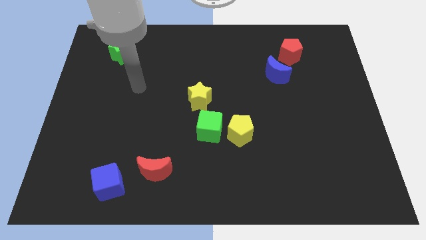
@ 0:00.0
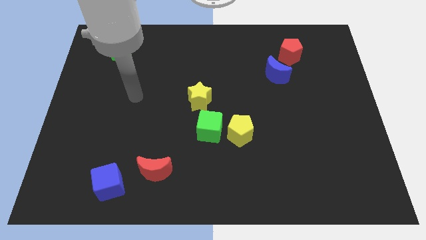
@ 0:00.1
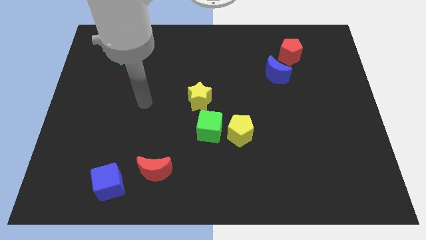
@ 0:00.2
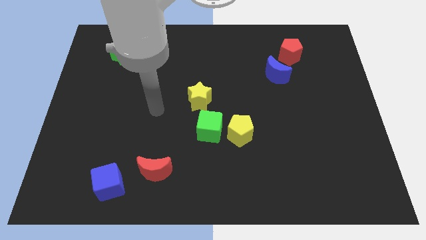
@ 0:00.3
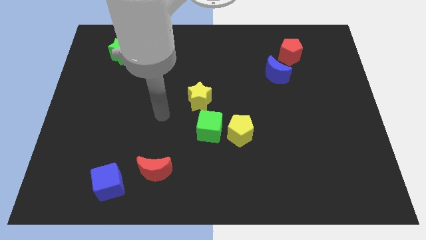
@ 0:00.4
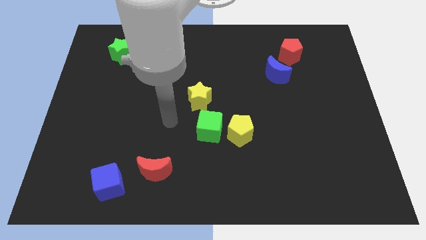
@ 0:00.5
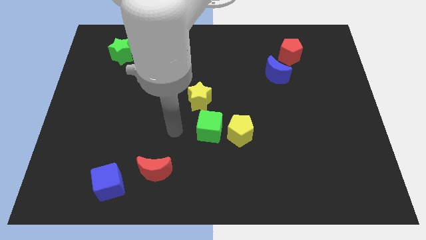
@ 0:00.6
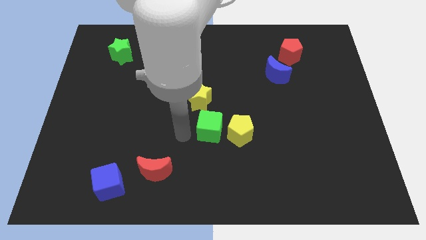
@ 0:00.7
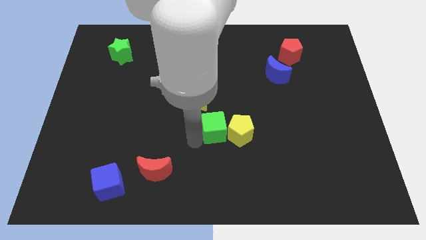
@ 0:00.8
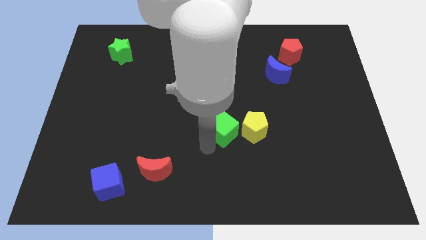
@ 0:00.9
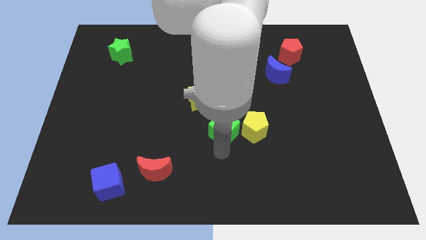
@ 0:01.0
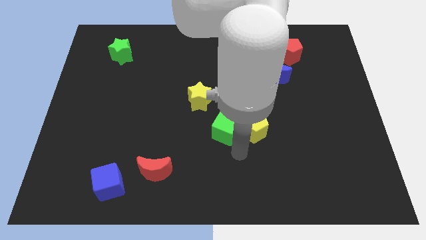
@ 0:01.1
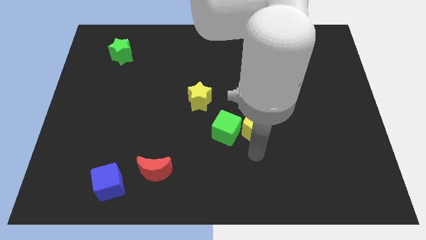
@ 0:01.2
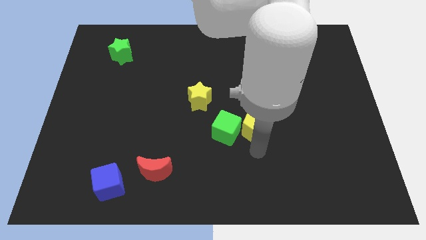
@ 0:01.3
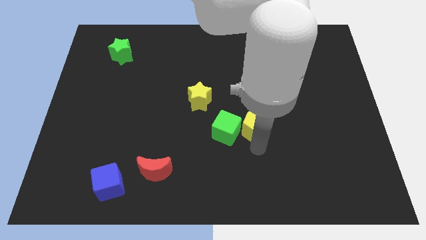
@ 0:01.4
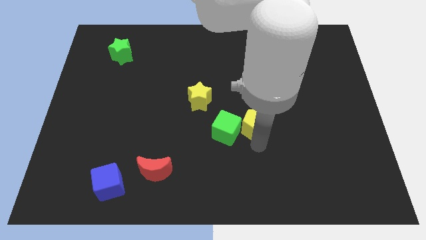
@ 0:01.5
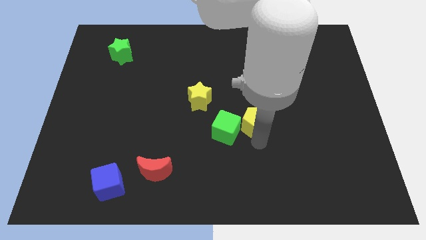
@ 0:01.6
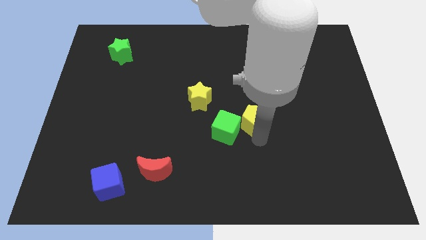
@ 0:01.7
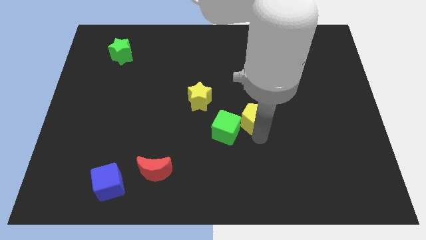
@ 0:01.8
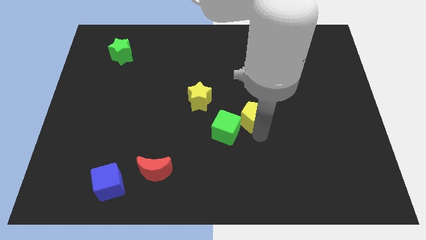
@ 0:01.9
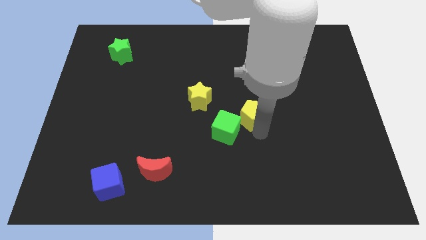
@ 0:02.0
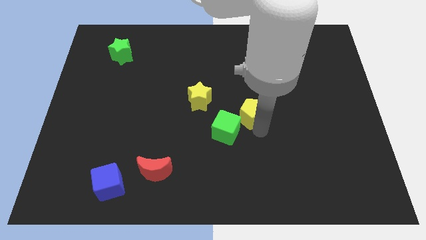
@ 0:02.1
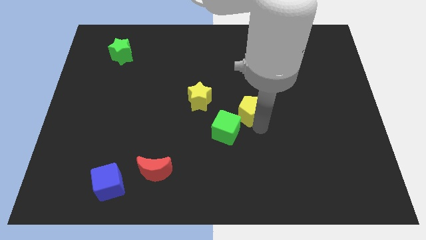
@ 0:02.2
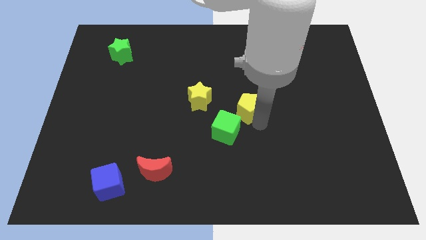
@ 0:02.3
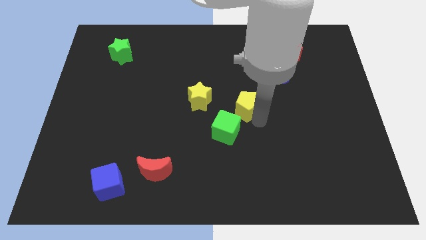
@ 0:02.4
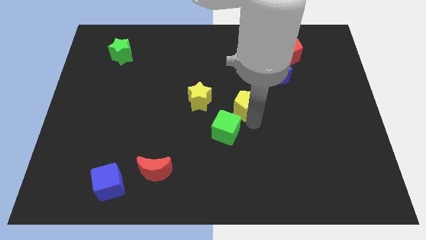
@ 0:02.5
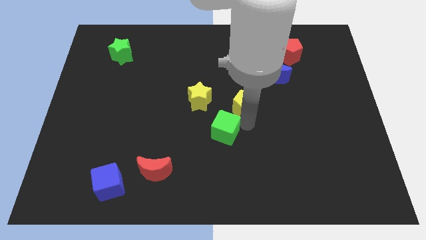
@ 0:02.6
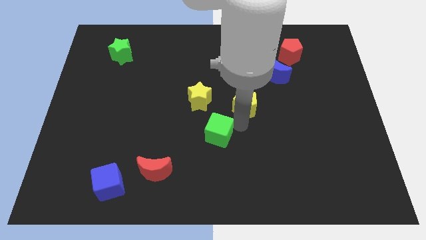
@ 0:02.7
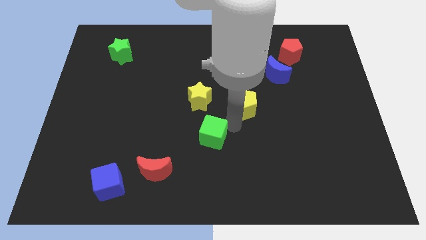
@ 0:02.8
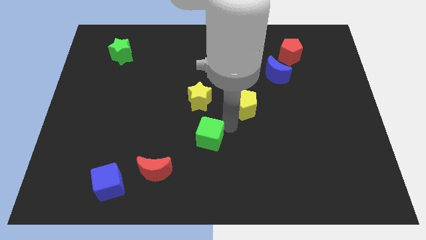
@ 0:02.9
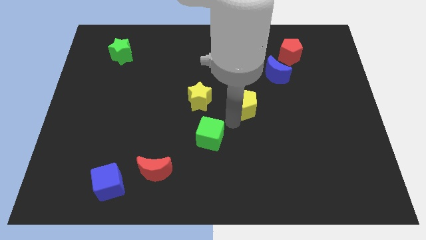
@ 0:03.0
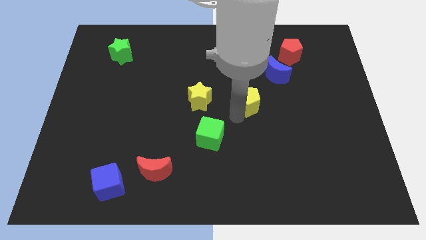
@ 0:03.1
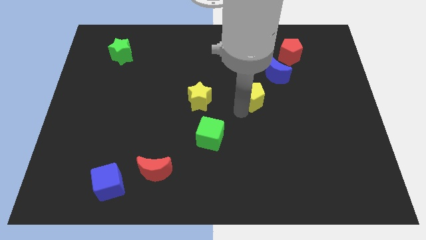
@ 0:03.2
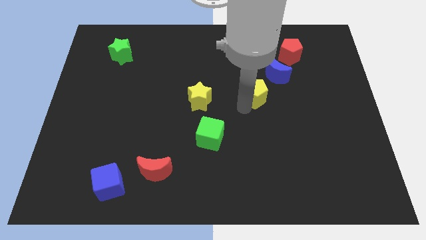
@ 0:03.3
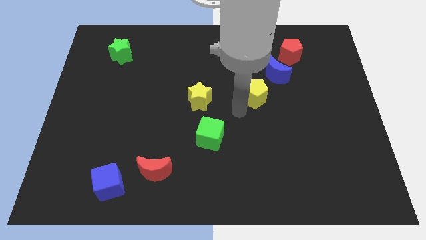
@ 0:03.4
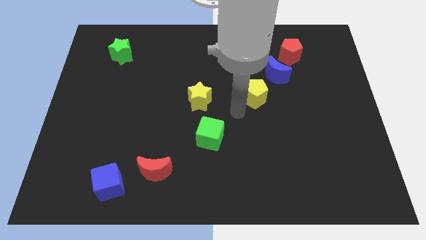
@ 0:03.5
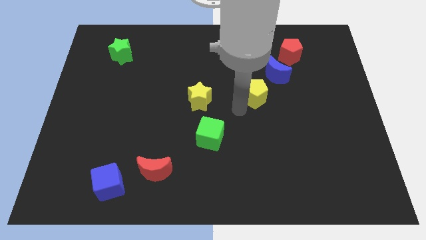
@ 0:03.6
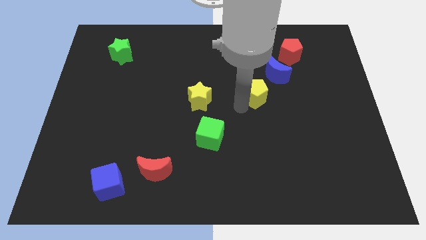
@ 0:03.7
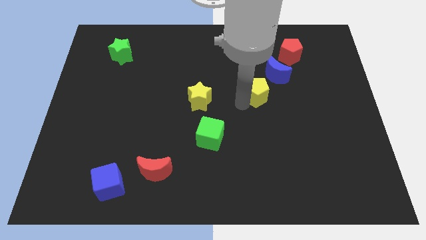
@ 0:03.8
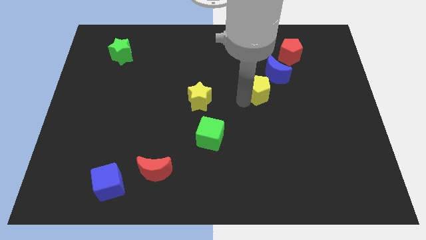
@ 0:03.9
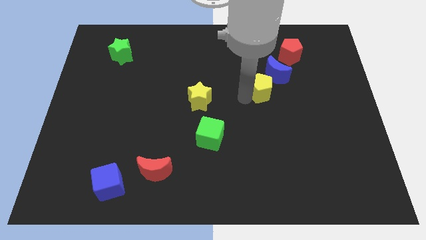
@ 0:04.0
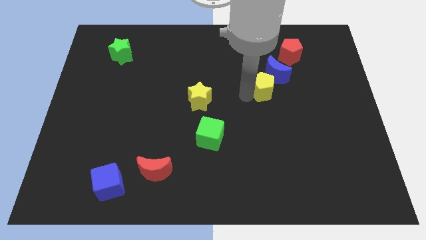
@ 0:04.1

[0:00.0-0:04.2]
push the yellow pentagon to the blue moon

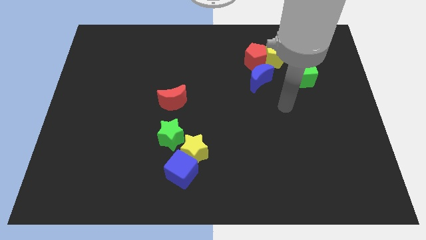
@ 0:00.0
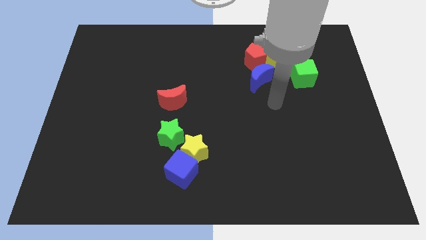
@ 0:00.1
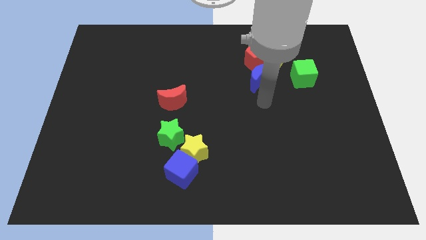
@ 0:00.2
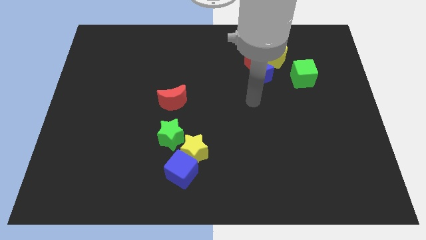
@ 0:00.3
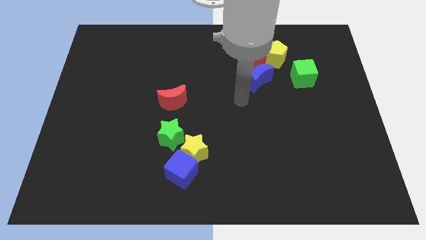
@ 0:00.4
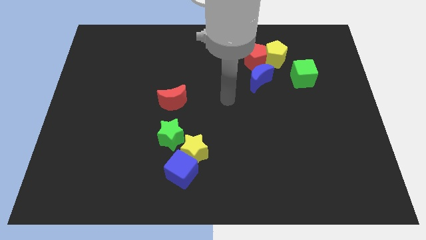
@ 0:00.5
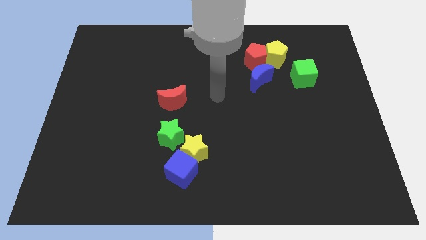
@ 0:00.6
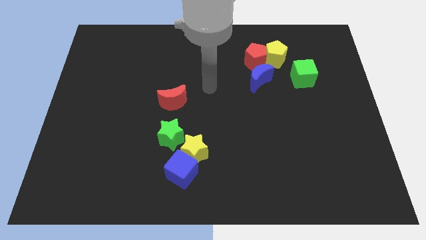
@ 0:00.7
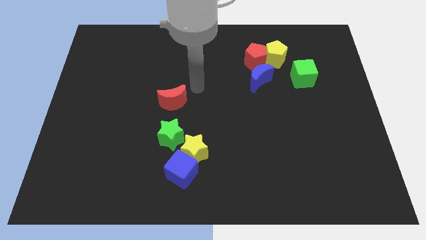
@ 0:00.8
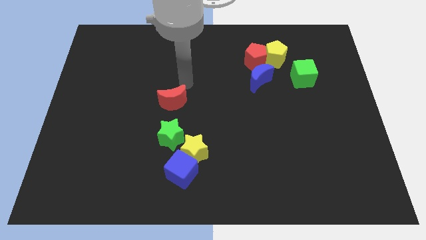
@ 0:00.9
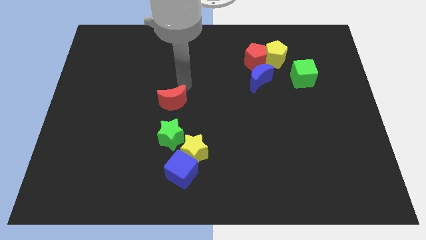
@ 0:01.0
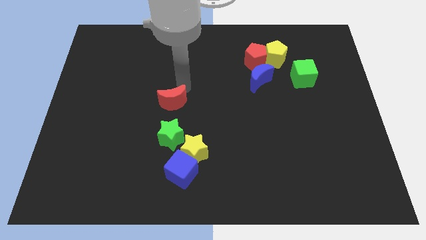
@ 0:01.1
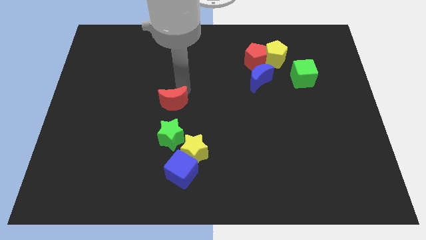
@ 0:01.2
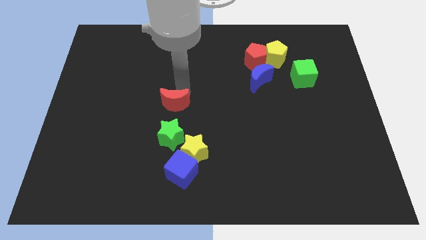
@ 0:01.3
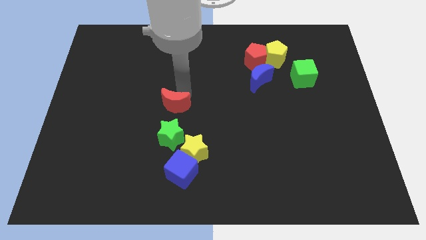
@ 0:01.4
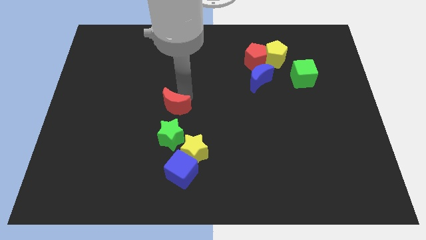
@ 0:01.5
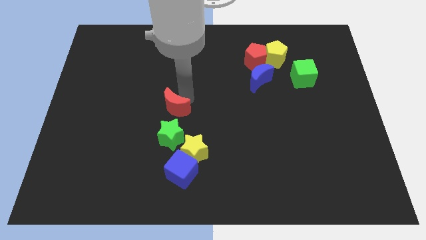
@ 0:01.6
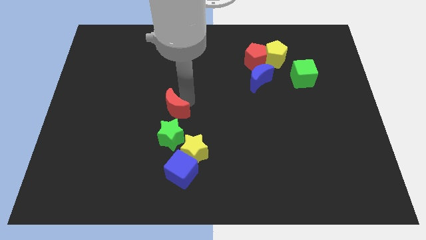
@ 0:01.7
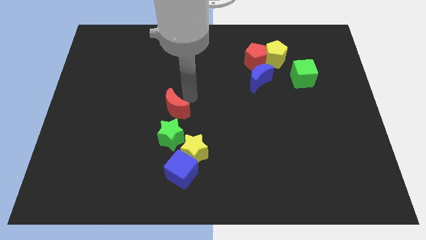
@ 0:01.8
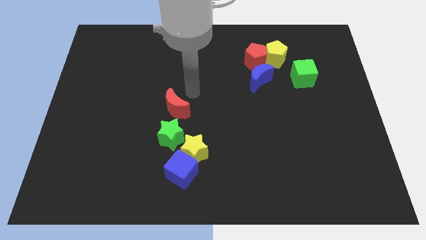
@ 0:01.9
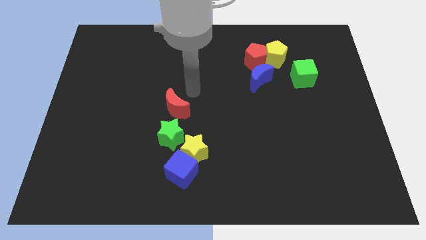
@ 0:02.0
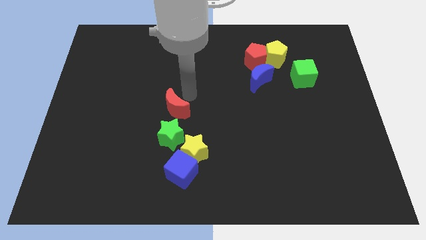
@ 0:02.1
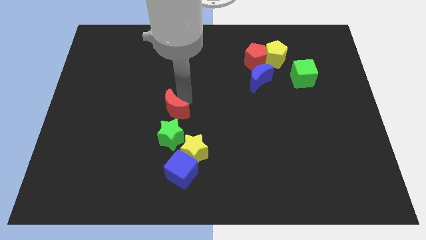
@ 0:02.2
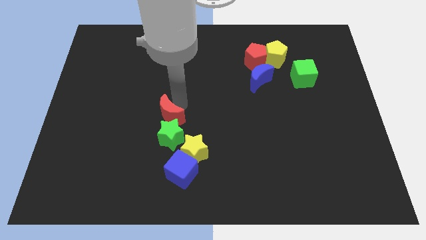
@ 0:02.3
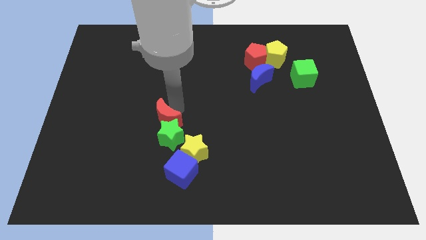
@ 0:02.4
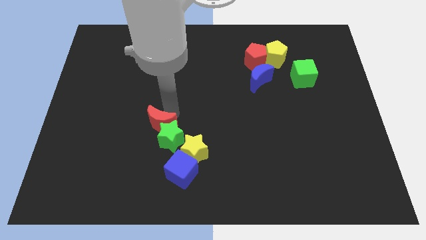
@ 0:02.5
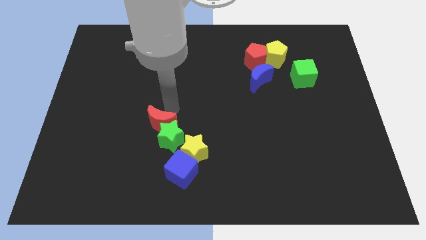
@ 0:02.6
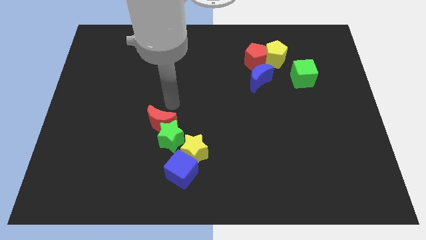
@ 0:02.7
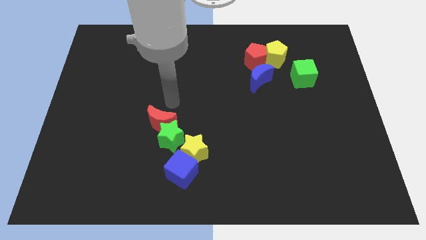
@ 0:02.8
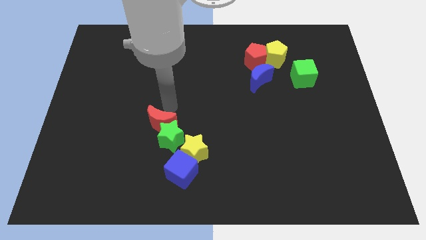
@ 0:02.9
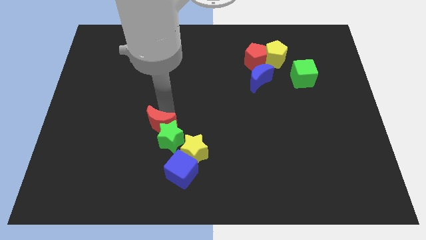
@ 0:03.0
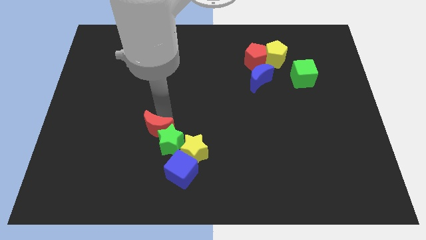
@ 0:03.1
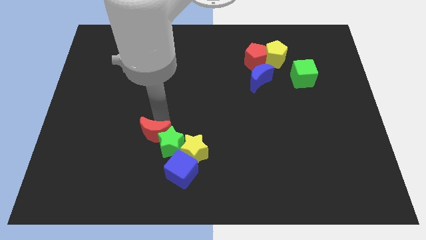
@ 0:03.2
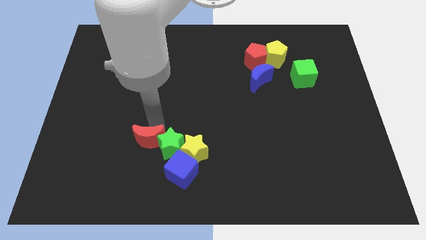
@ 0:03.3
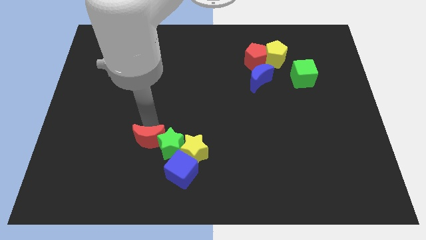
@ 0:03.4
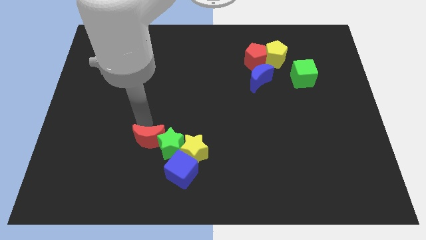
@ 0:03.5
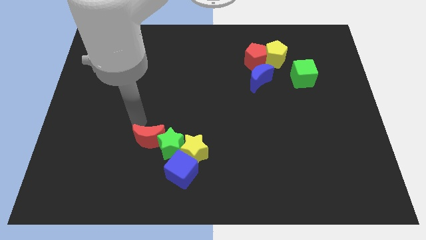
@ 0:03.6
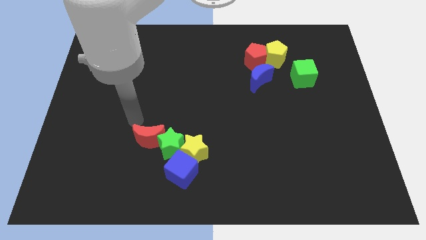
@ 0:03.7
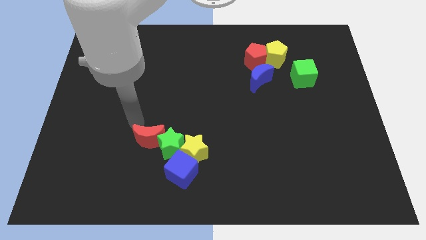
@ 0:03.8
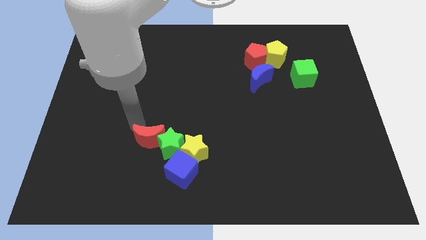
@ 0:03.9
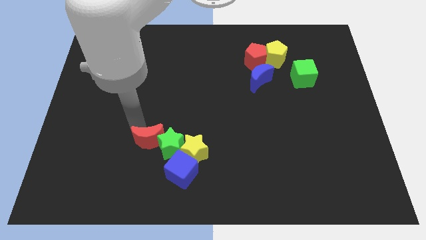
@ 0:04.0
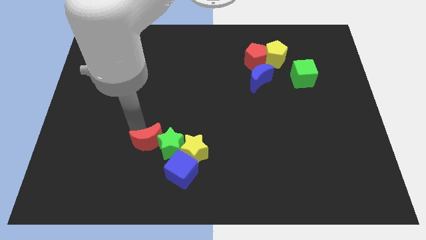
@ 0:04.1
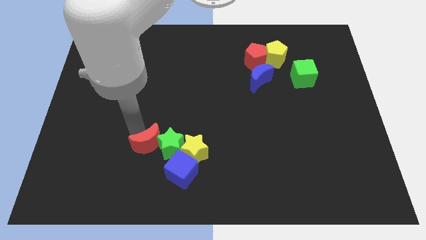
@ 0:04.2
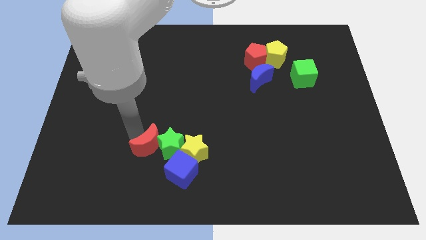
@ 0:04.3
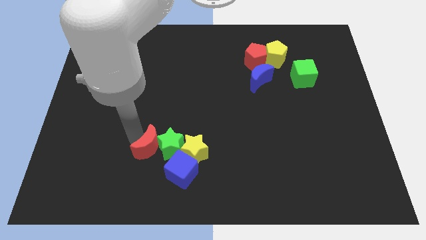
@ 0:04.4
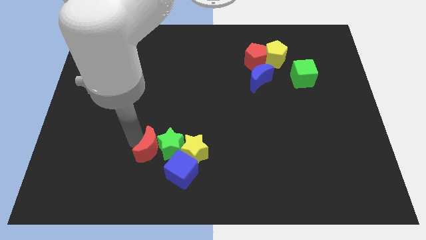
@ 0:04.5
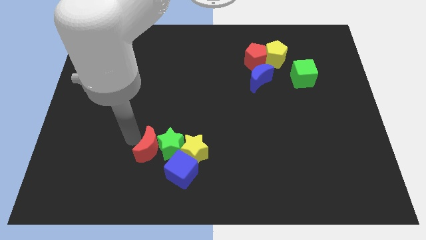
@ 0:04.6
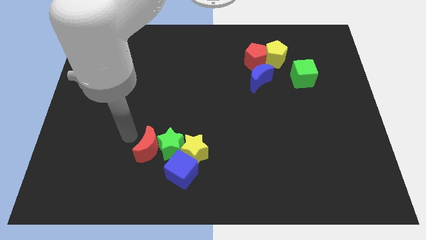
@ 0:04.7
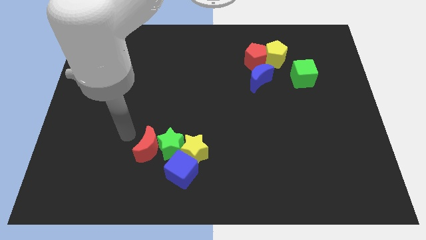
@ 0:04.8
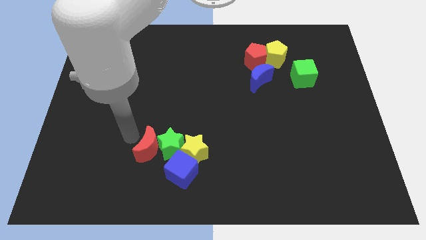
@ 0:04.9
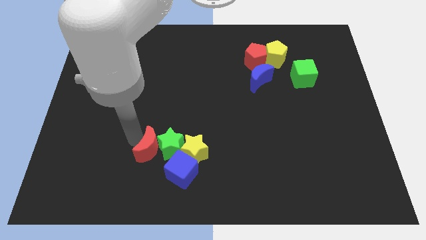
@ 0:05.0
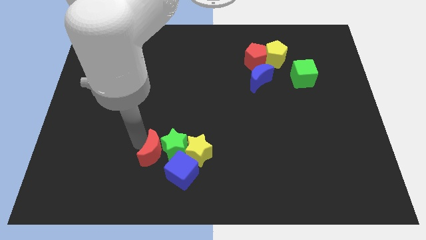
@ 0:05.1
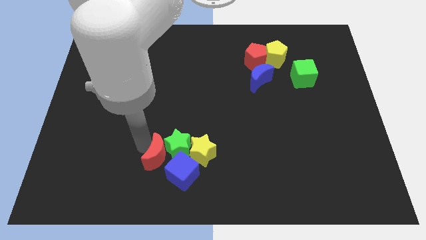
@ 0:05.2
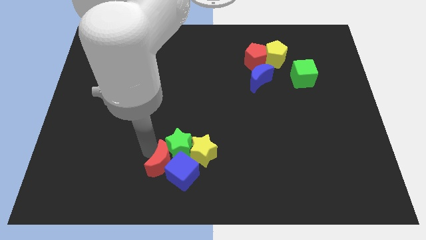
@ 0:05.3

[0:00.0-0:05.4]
push the red moon next to the blue cube
